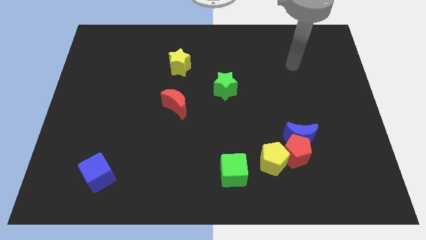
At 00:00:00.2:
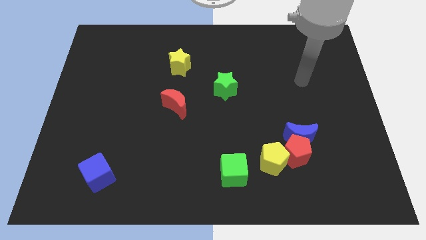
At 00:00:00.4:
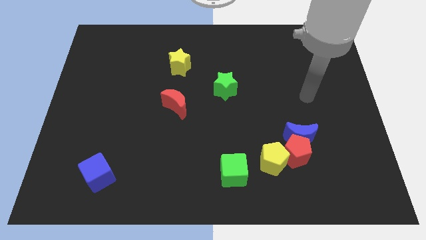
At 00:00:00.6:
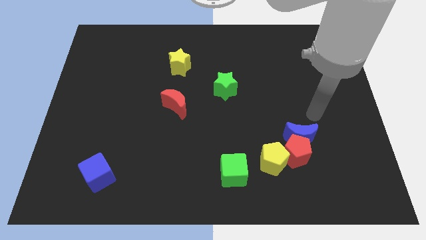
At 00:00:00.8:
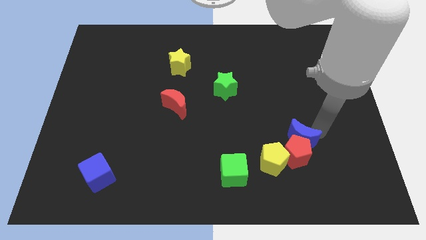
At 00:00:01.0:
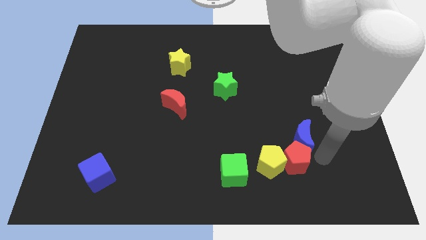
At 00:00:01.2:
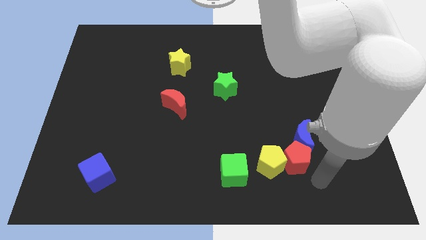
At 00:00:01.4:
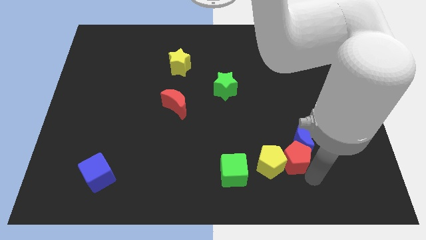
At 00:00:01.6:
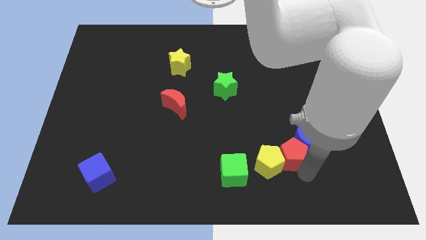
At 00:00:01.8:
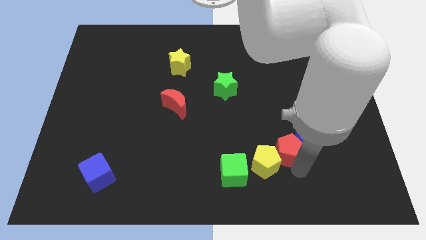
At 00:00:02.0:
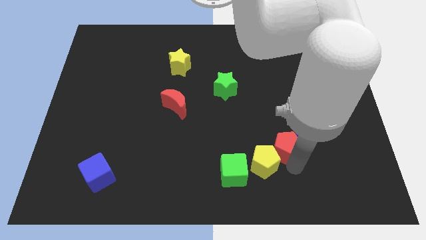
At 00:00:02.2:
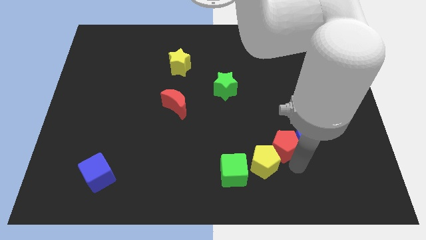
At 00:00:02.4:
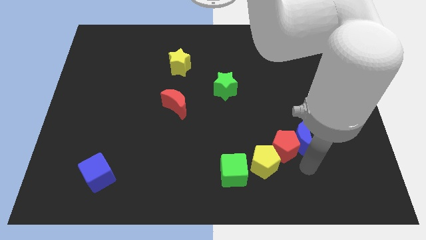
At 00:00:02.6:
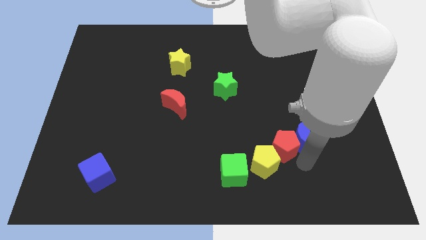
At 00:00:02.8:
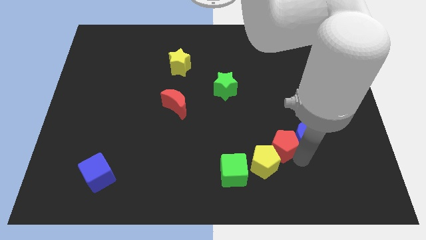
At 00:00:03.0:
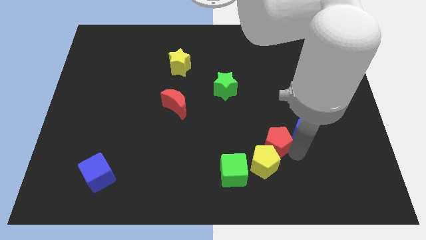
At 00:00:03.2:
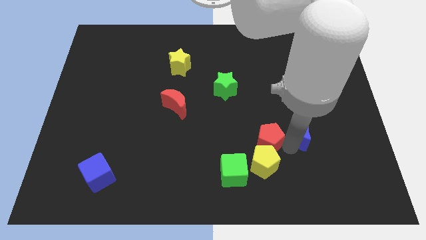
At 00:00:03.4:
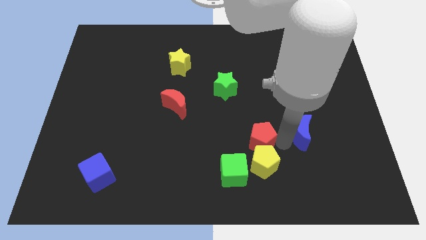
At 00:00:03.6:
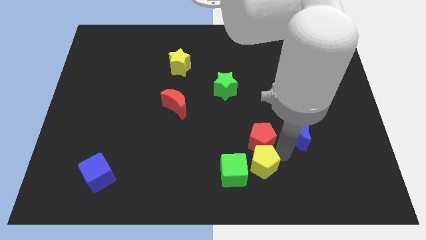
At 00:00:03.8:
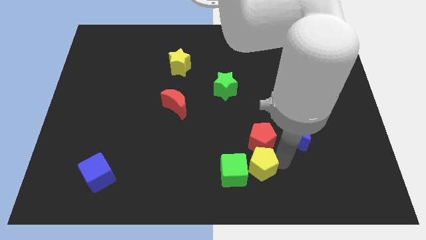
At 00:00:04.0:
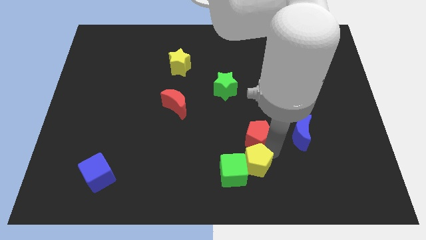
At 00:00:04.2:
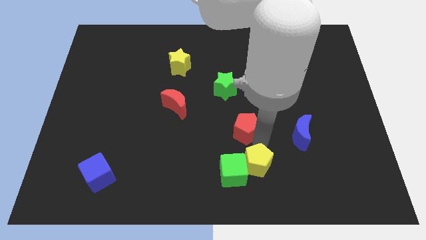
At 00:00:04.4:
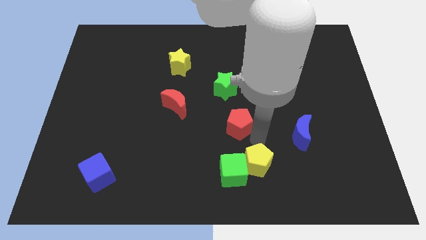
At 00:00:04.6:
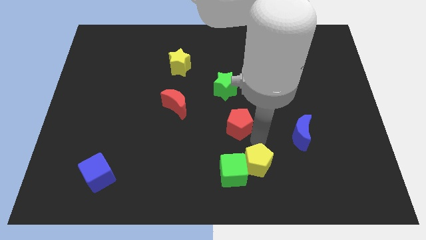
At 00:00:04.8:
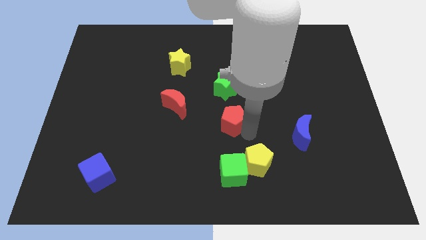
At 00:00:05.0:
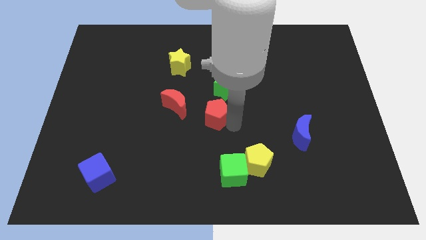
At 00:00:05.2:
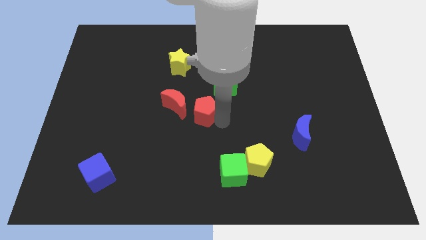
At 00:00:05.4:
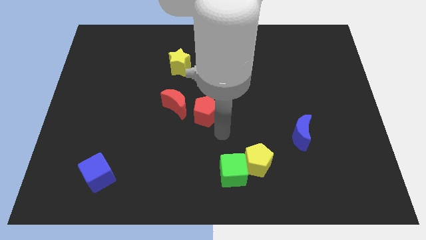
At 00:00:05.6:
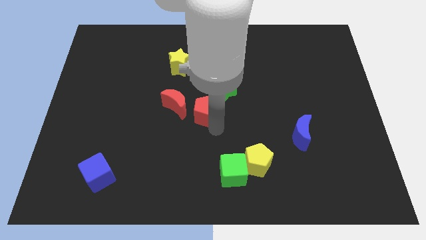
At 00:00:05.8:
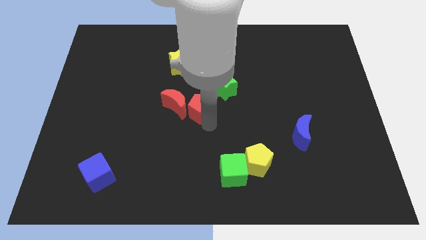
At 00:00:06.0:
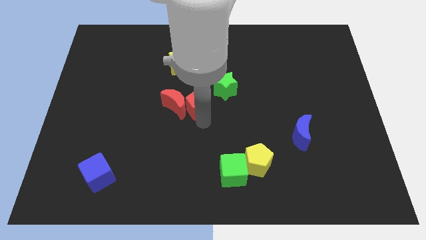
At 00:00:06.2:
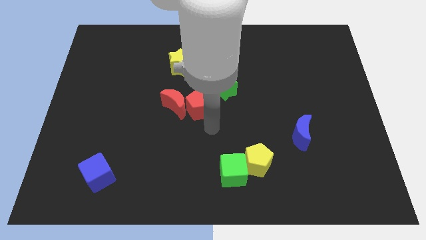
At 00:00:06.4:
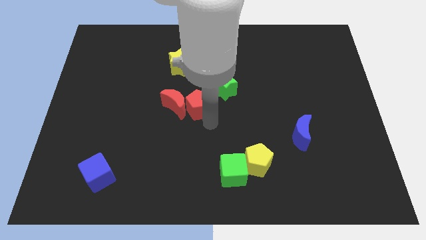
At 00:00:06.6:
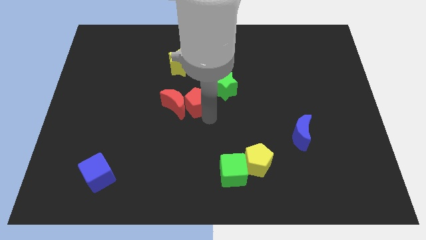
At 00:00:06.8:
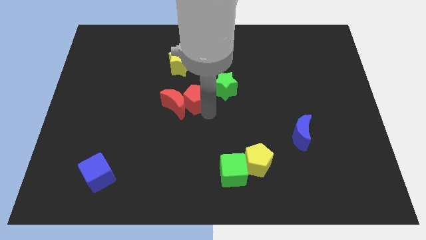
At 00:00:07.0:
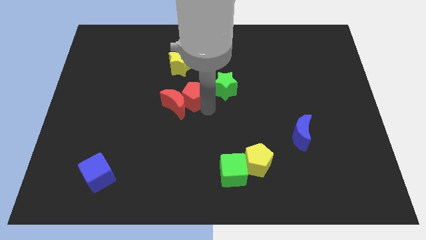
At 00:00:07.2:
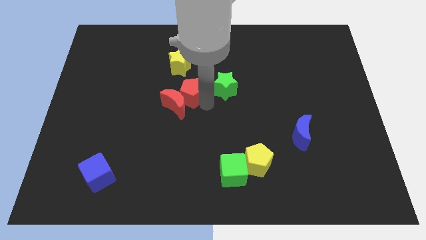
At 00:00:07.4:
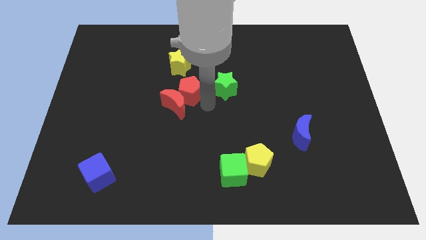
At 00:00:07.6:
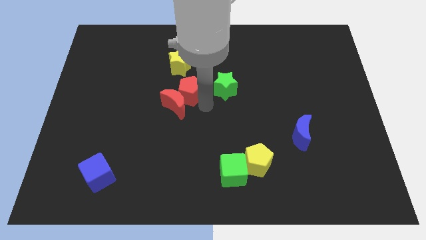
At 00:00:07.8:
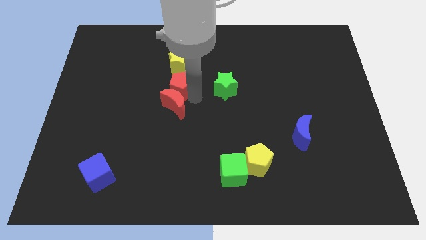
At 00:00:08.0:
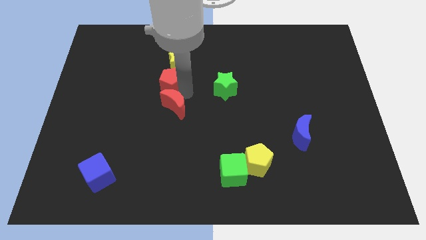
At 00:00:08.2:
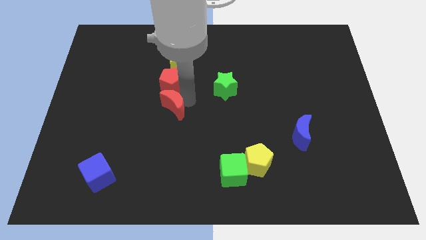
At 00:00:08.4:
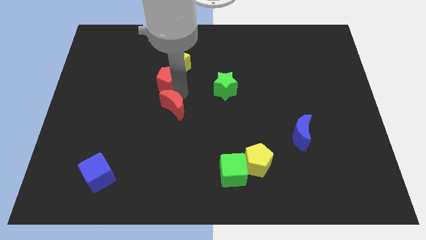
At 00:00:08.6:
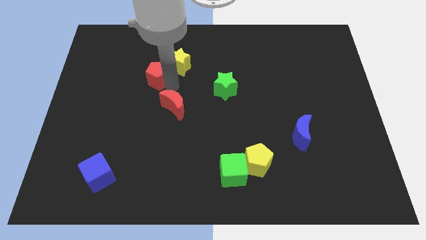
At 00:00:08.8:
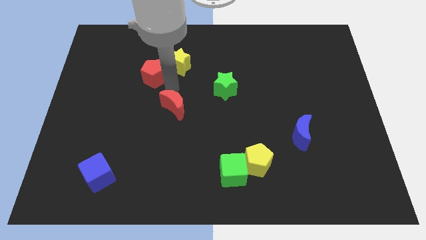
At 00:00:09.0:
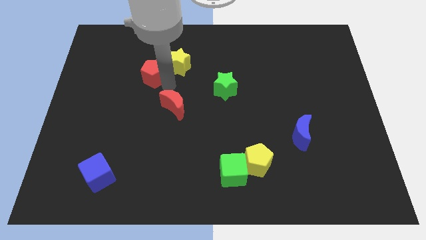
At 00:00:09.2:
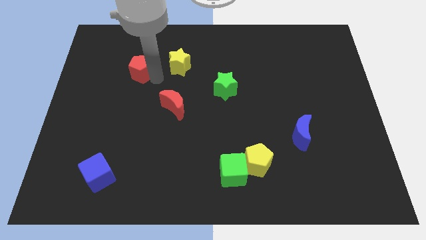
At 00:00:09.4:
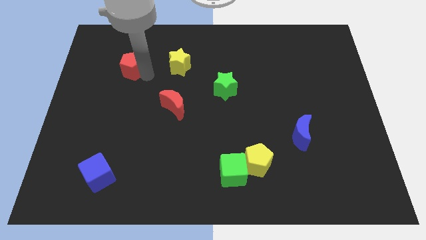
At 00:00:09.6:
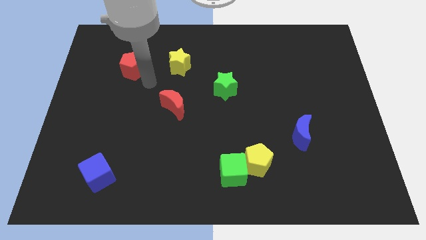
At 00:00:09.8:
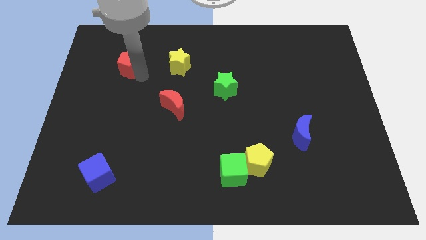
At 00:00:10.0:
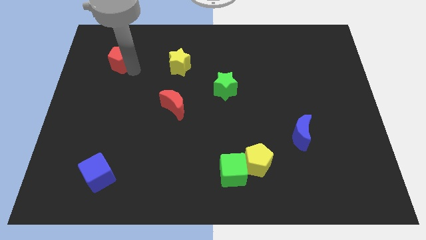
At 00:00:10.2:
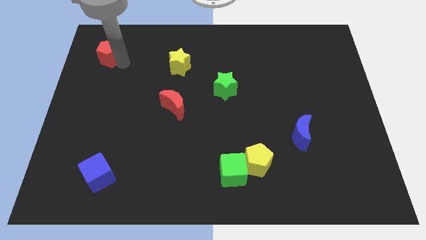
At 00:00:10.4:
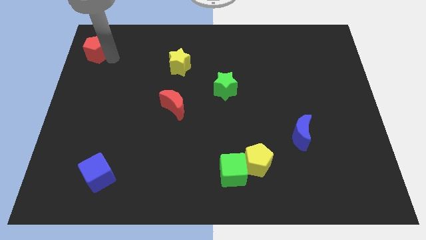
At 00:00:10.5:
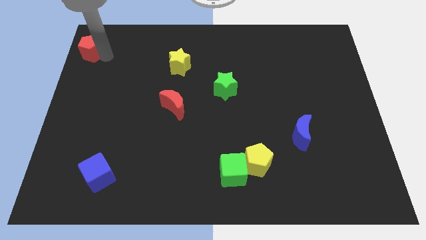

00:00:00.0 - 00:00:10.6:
put the red pentagon to the top left corner

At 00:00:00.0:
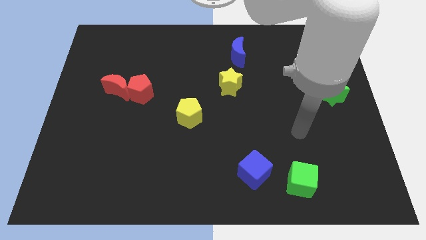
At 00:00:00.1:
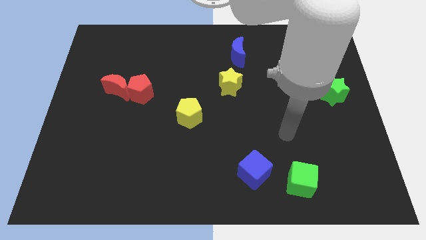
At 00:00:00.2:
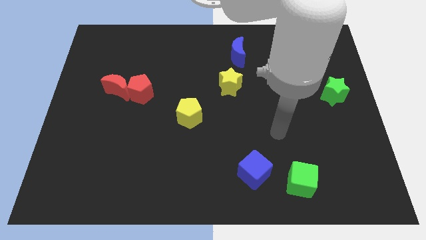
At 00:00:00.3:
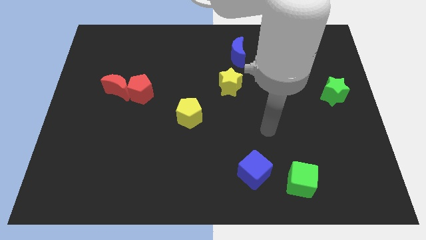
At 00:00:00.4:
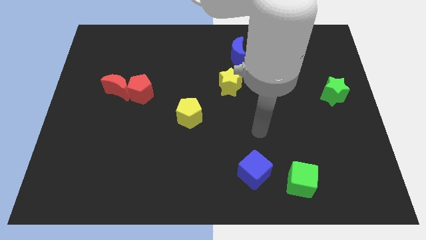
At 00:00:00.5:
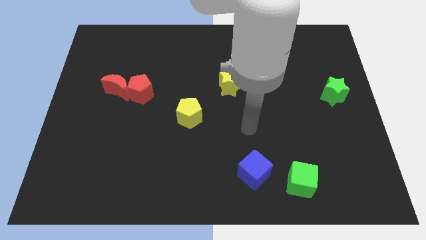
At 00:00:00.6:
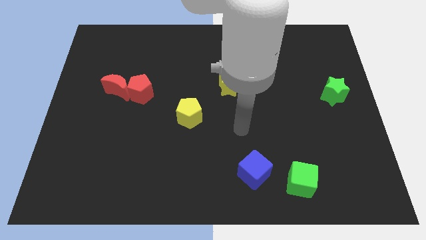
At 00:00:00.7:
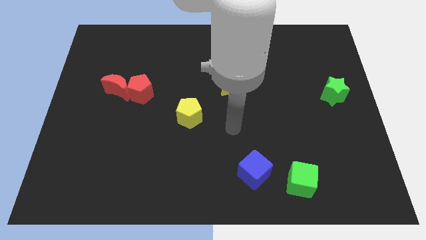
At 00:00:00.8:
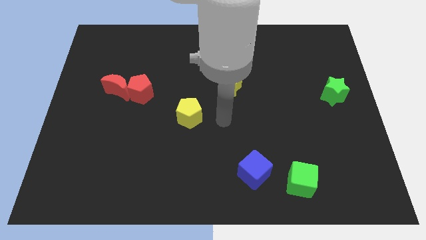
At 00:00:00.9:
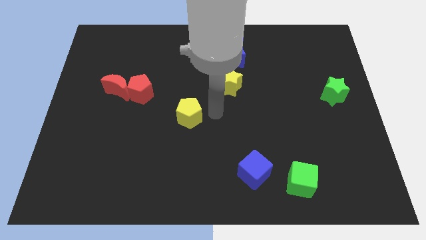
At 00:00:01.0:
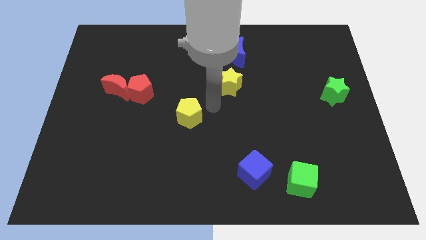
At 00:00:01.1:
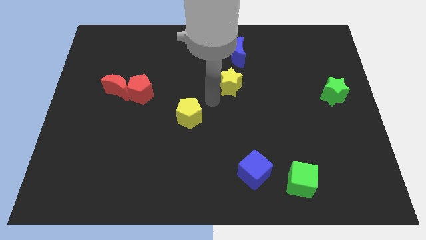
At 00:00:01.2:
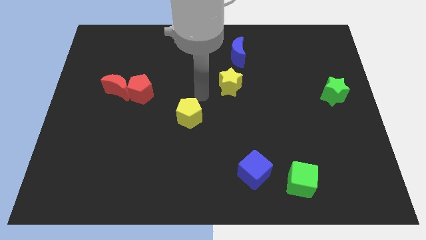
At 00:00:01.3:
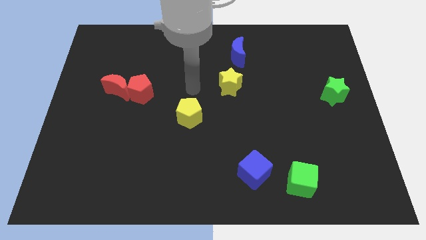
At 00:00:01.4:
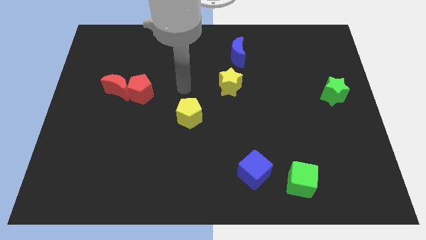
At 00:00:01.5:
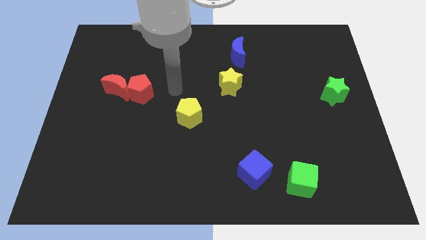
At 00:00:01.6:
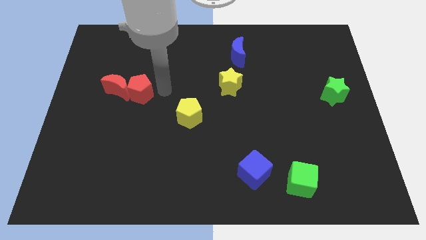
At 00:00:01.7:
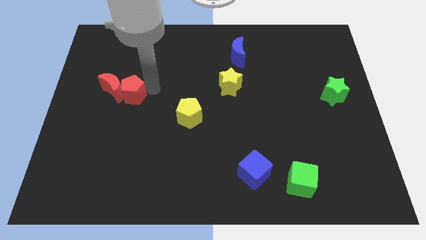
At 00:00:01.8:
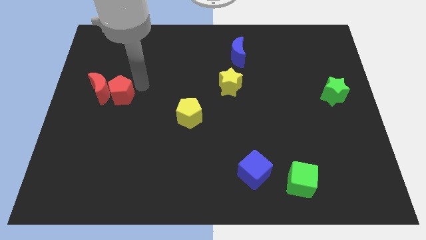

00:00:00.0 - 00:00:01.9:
slide the red moon to the left side of the board
